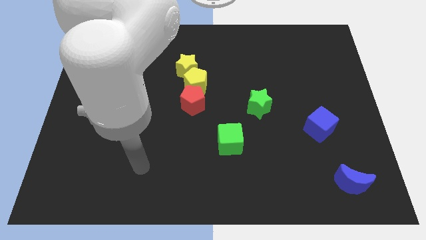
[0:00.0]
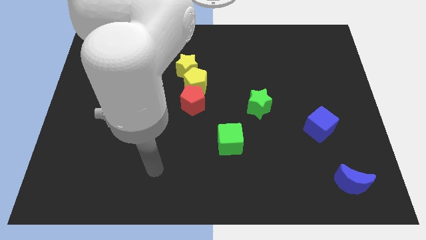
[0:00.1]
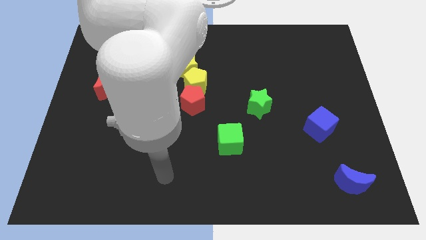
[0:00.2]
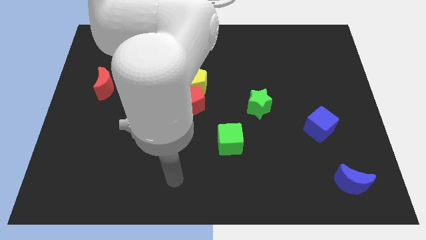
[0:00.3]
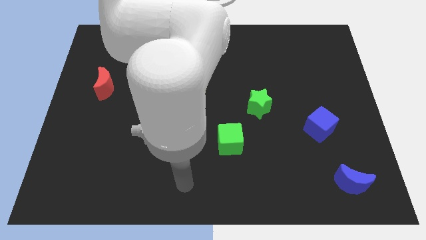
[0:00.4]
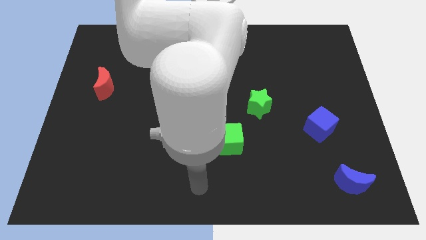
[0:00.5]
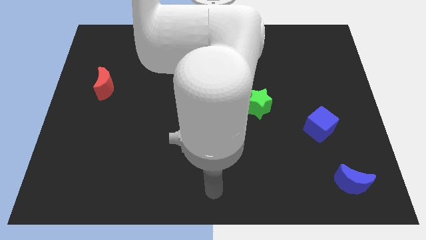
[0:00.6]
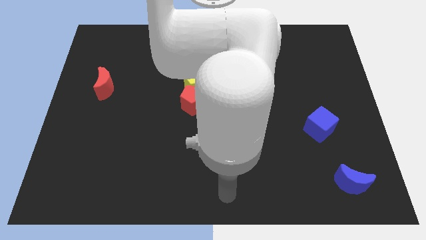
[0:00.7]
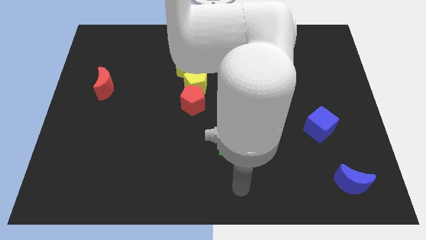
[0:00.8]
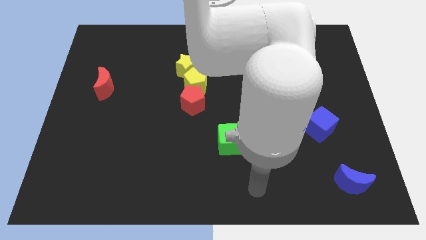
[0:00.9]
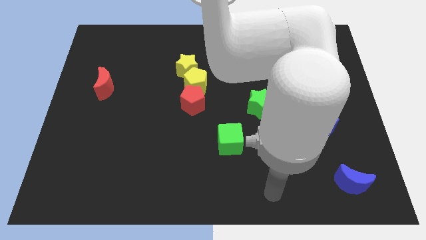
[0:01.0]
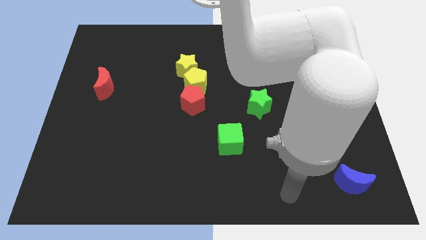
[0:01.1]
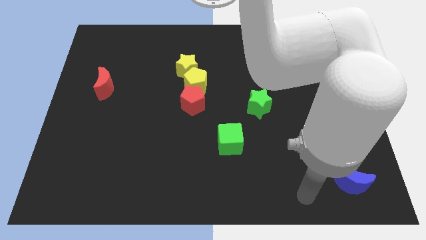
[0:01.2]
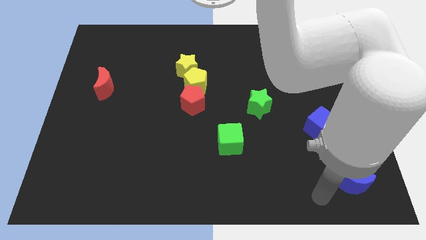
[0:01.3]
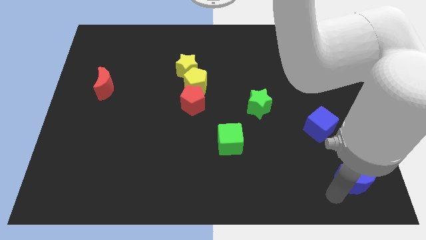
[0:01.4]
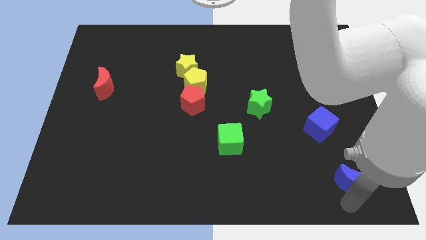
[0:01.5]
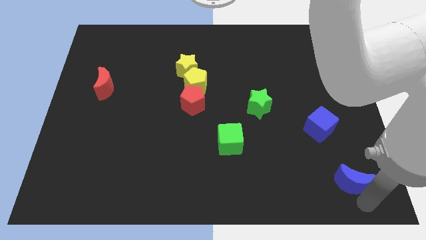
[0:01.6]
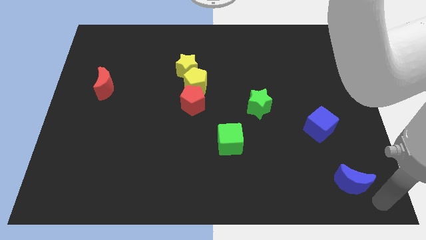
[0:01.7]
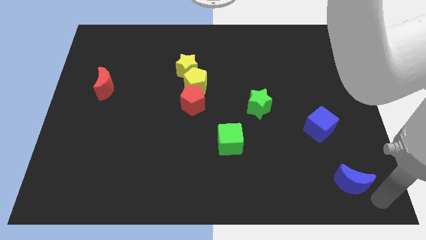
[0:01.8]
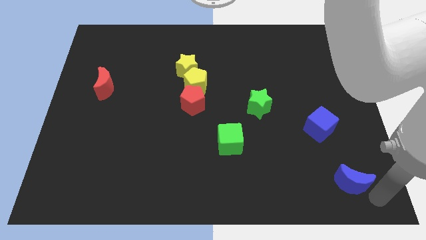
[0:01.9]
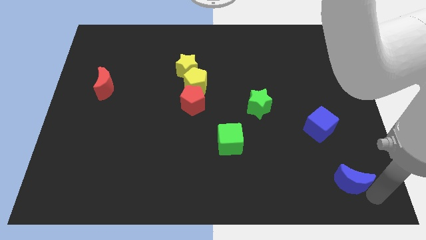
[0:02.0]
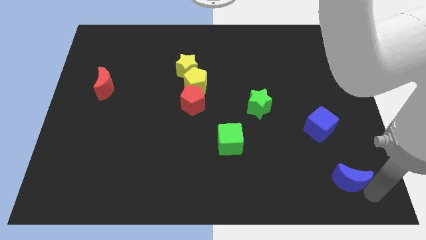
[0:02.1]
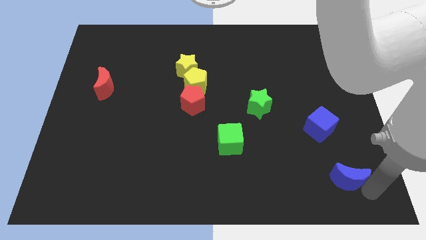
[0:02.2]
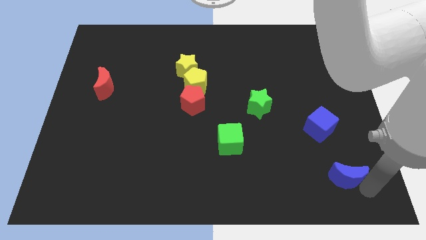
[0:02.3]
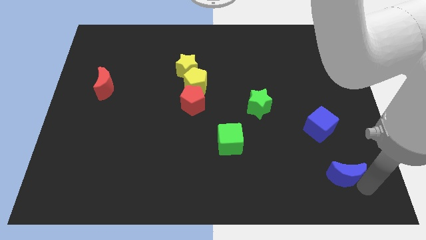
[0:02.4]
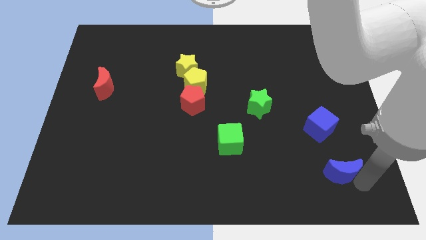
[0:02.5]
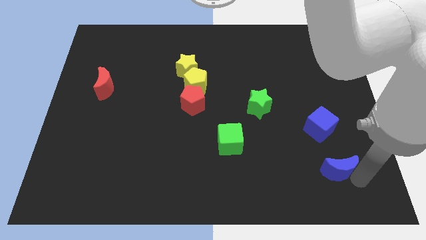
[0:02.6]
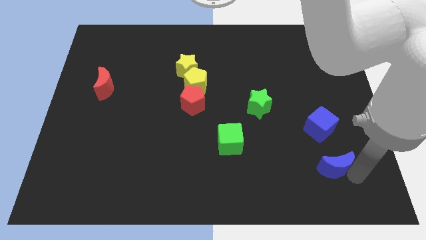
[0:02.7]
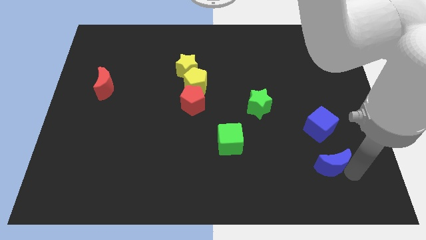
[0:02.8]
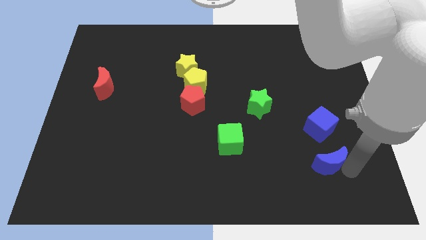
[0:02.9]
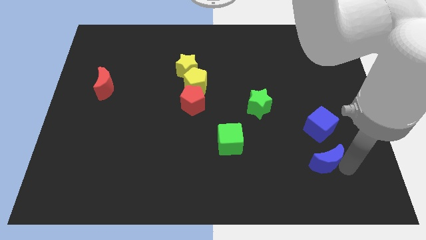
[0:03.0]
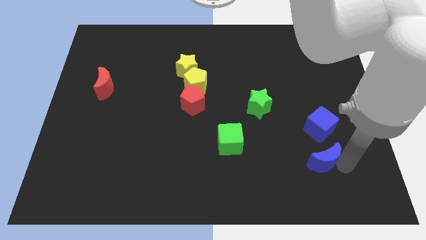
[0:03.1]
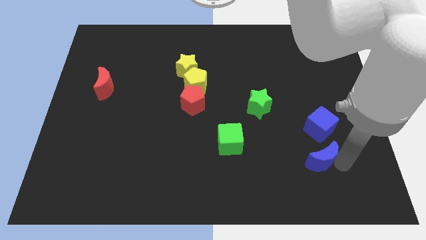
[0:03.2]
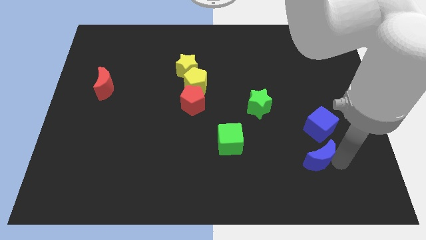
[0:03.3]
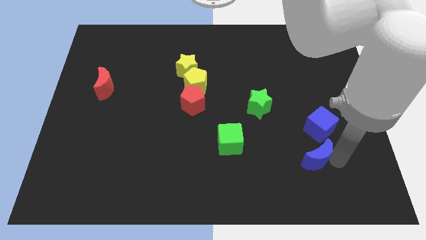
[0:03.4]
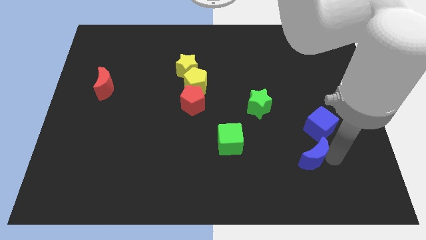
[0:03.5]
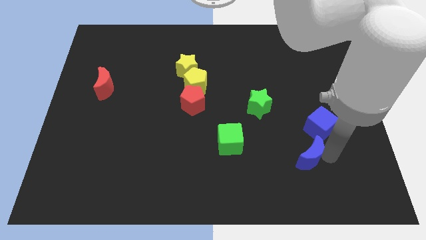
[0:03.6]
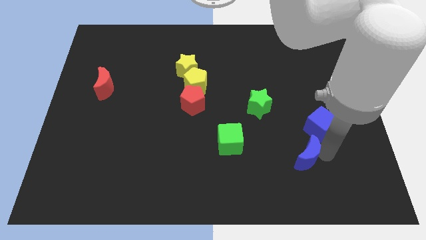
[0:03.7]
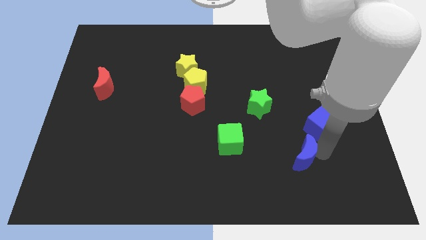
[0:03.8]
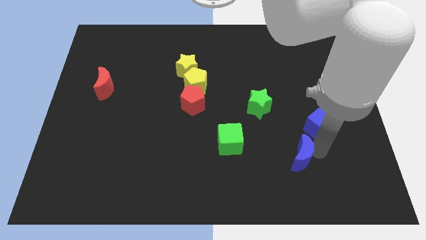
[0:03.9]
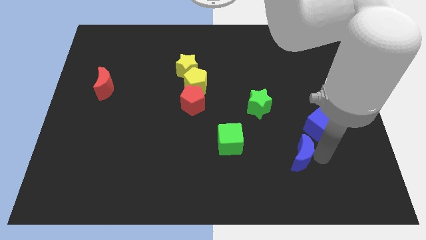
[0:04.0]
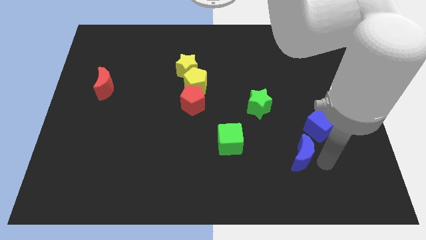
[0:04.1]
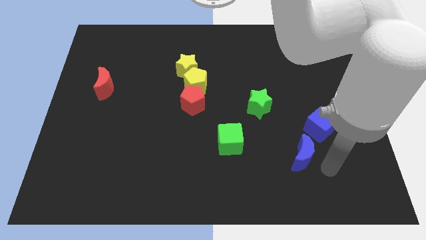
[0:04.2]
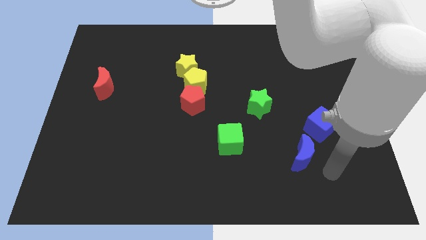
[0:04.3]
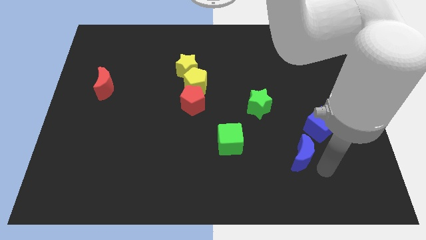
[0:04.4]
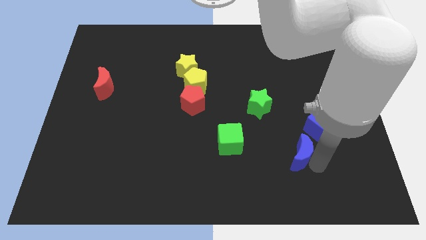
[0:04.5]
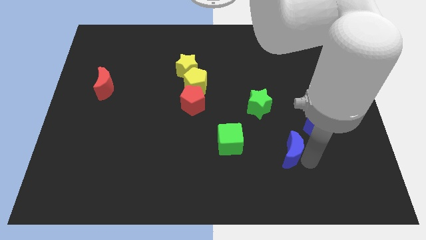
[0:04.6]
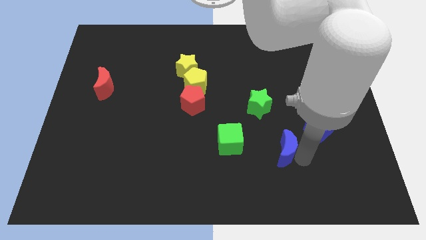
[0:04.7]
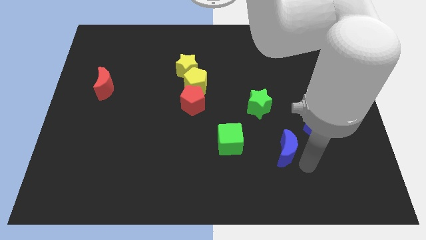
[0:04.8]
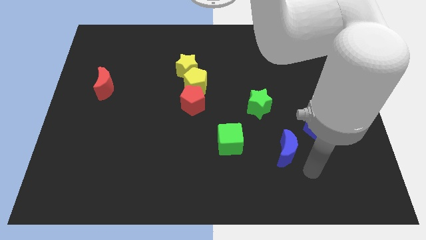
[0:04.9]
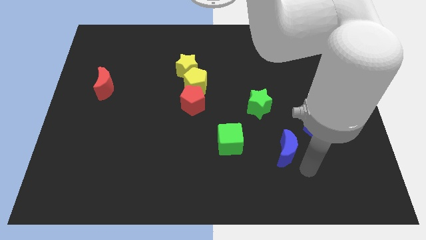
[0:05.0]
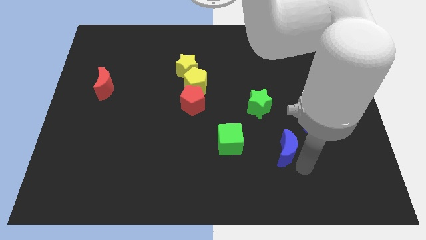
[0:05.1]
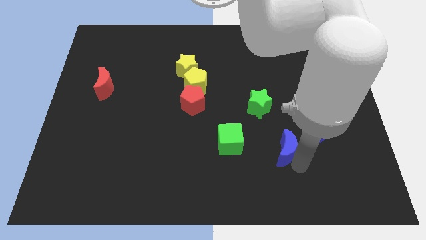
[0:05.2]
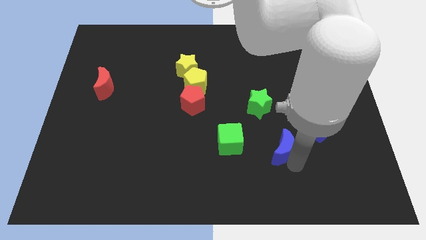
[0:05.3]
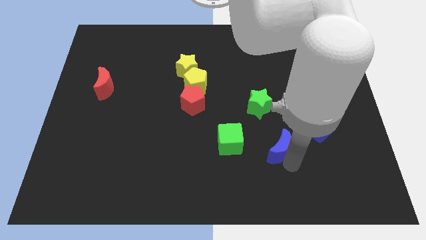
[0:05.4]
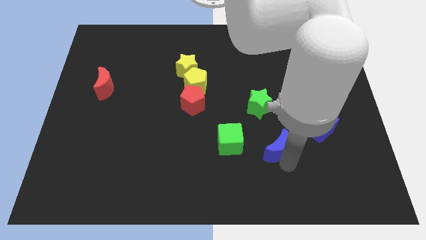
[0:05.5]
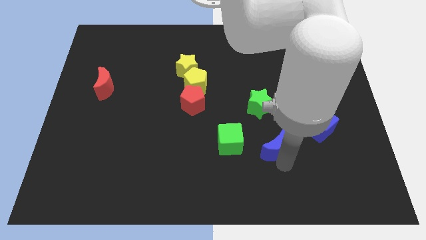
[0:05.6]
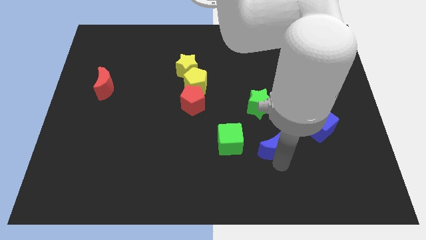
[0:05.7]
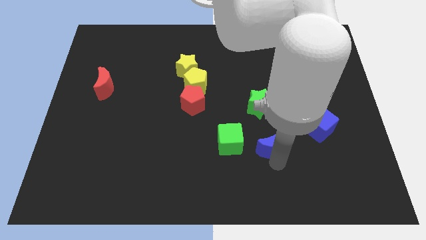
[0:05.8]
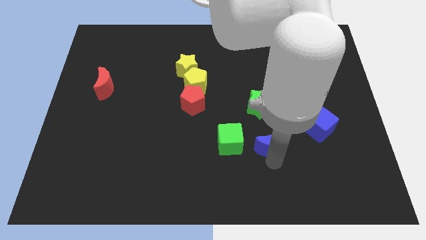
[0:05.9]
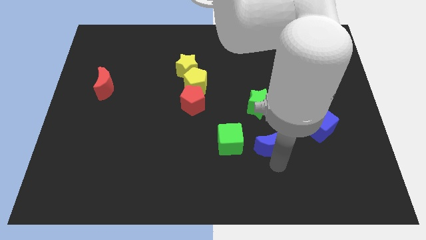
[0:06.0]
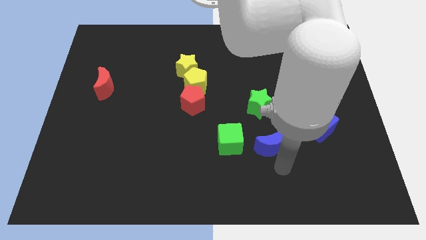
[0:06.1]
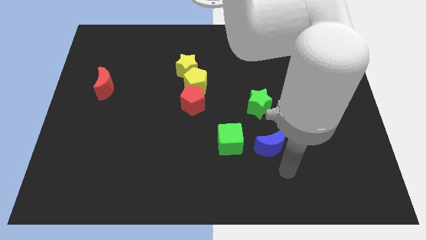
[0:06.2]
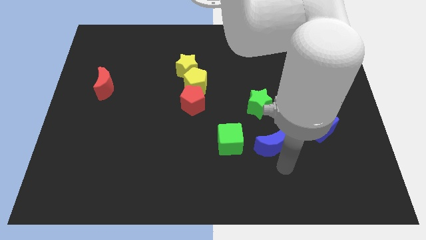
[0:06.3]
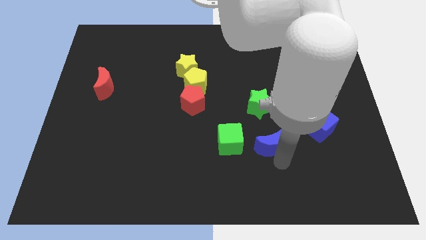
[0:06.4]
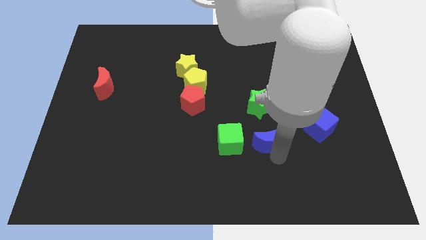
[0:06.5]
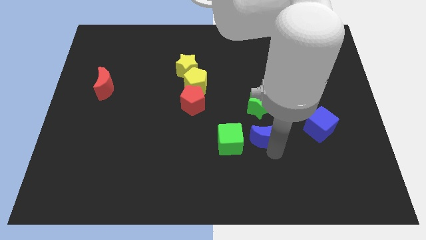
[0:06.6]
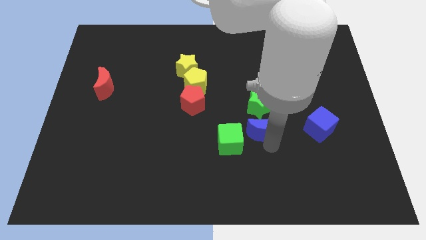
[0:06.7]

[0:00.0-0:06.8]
slide the blue moon up and to the left diagonally

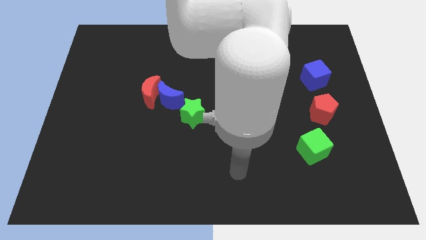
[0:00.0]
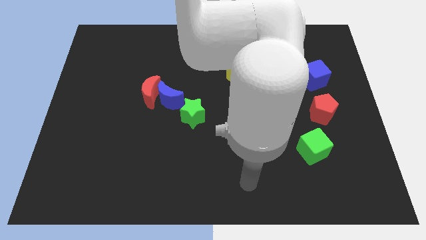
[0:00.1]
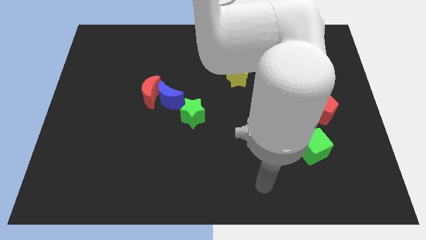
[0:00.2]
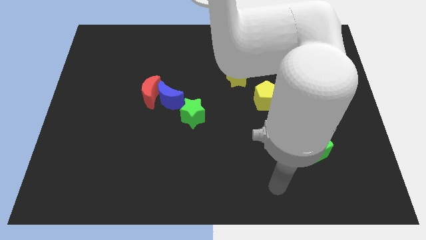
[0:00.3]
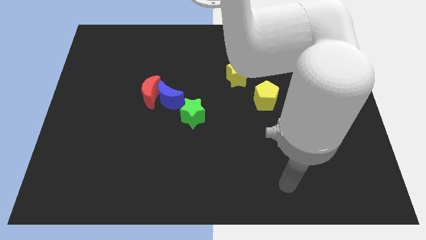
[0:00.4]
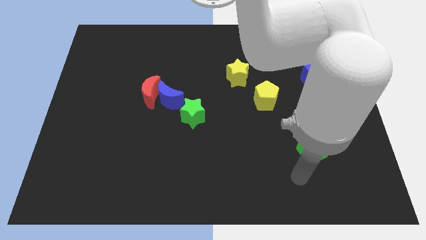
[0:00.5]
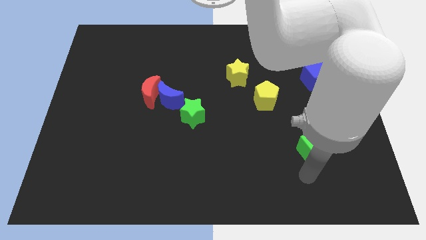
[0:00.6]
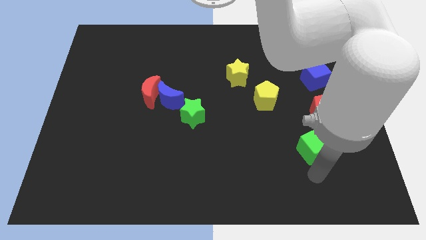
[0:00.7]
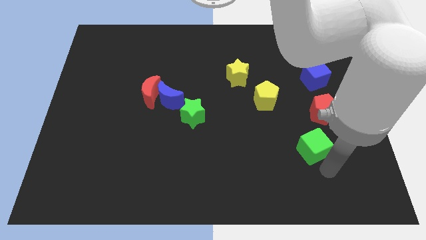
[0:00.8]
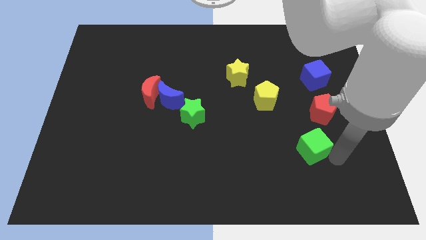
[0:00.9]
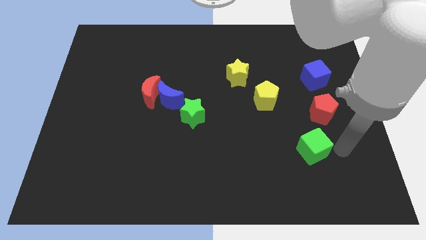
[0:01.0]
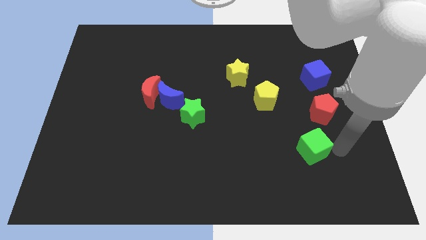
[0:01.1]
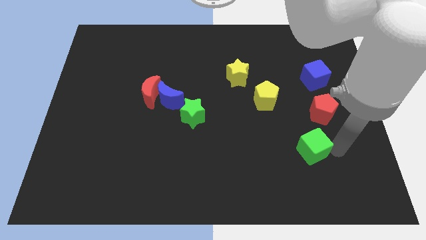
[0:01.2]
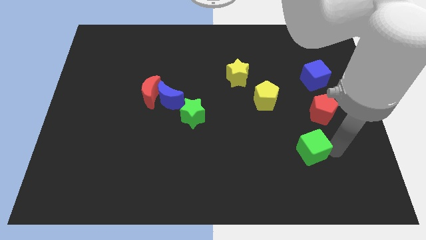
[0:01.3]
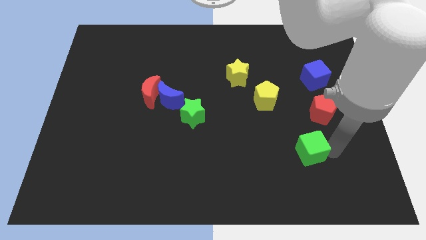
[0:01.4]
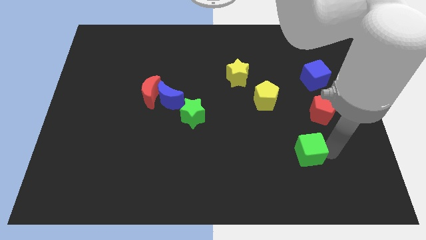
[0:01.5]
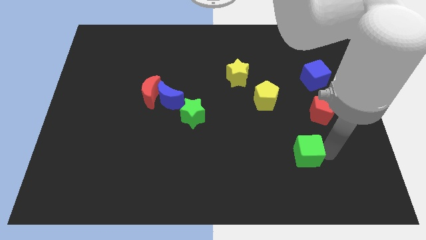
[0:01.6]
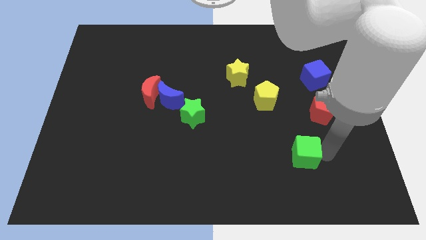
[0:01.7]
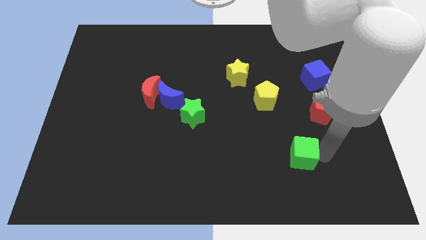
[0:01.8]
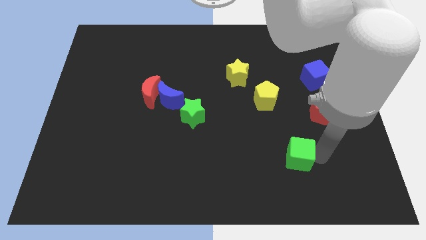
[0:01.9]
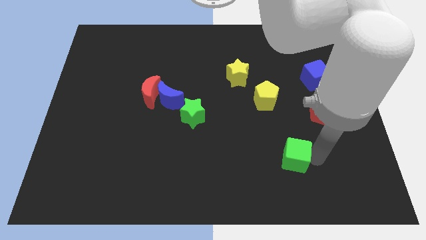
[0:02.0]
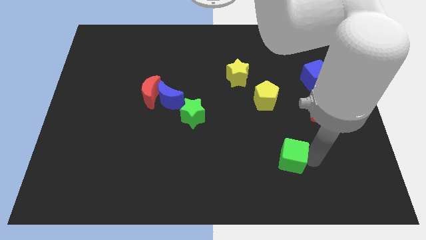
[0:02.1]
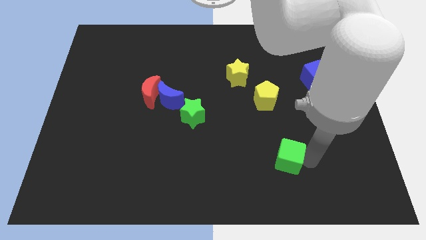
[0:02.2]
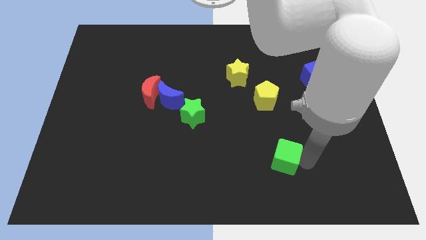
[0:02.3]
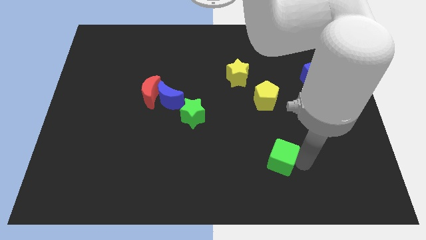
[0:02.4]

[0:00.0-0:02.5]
push the green cube to the left a bit
